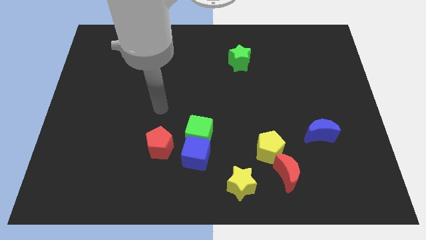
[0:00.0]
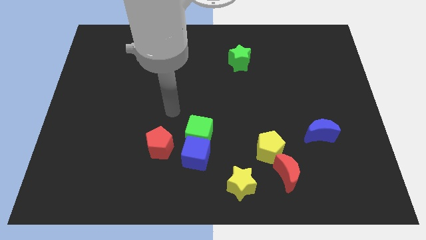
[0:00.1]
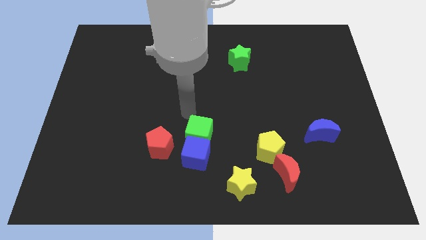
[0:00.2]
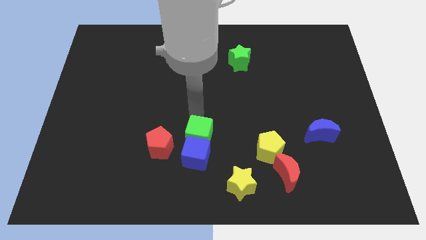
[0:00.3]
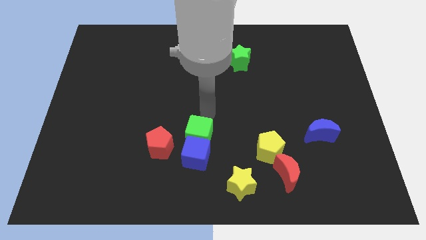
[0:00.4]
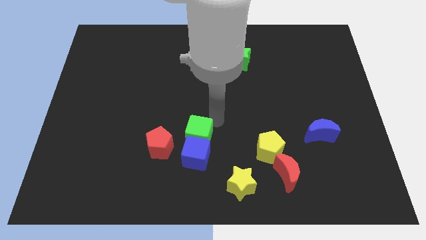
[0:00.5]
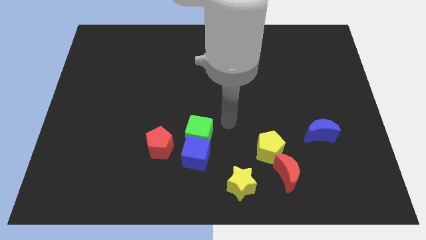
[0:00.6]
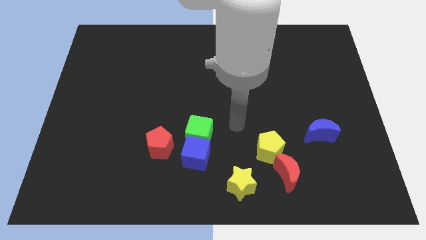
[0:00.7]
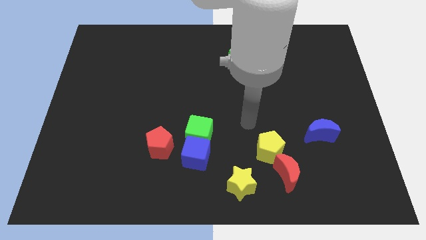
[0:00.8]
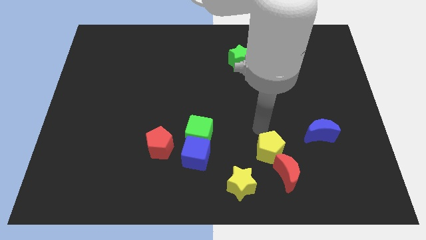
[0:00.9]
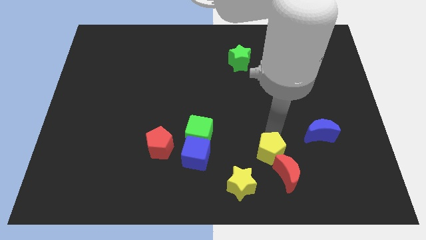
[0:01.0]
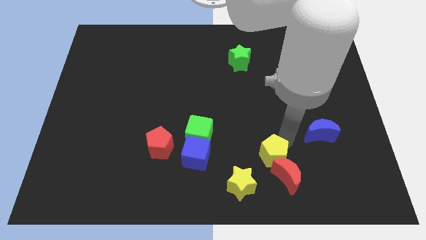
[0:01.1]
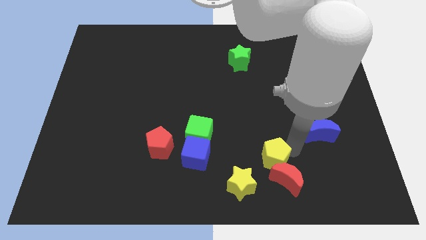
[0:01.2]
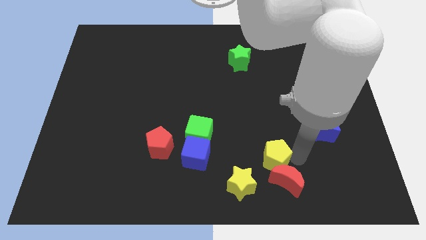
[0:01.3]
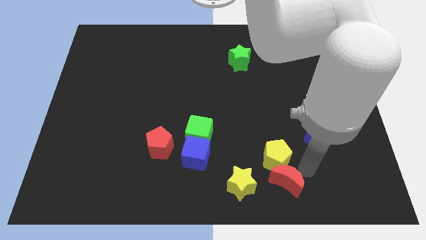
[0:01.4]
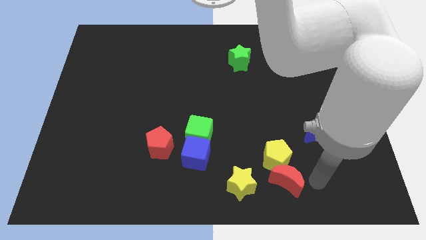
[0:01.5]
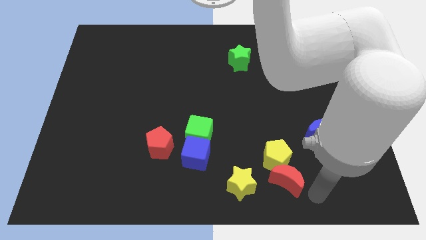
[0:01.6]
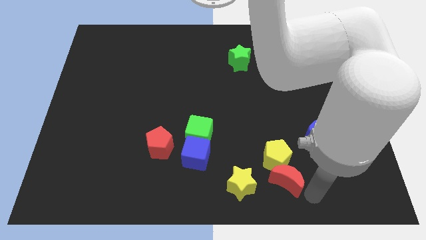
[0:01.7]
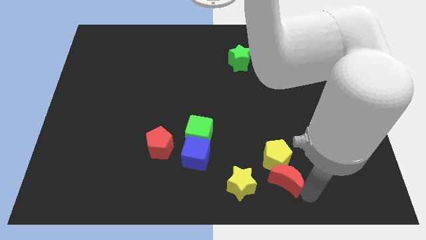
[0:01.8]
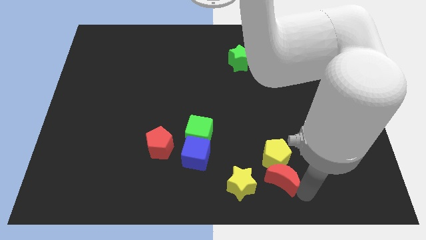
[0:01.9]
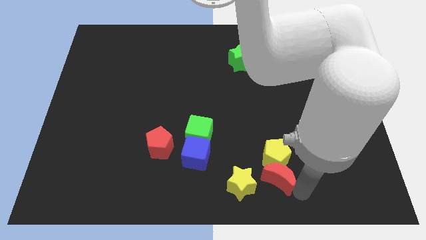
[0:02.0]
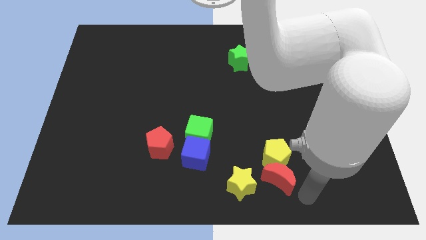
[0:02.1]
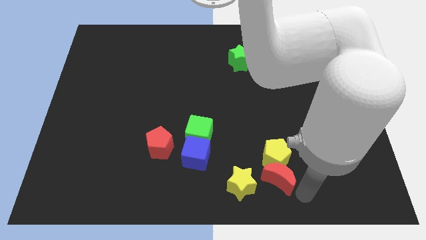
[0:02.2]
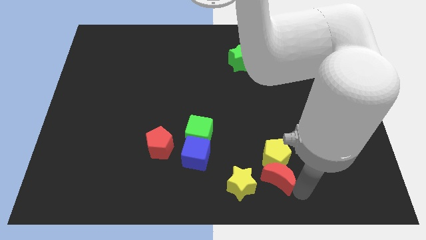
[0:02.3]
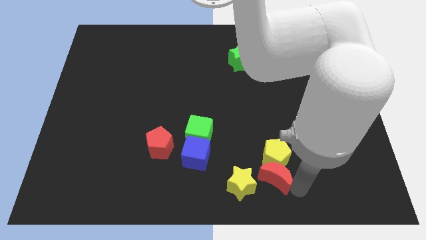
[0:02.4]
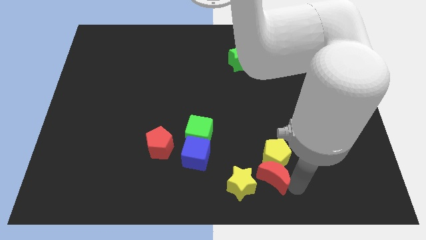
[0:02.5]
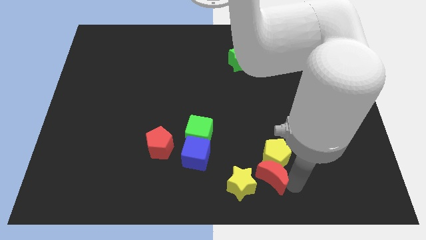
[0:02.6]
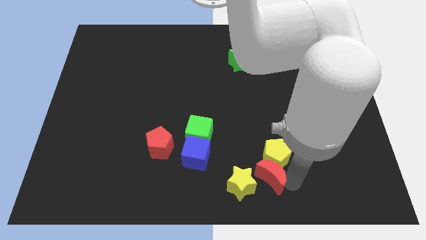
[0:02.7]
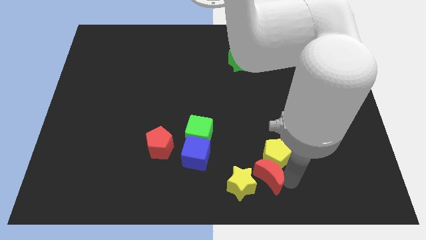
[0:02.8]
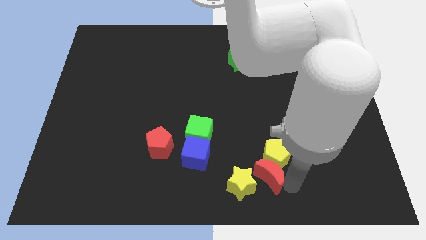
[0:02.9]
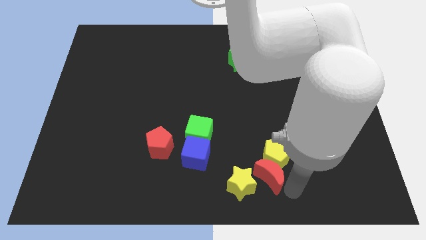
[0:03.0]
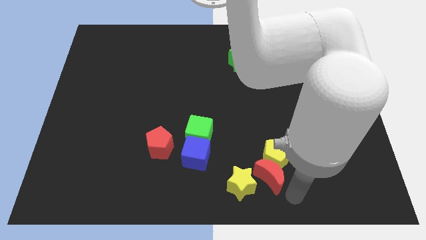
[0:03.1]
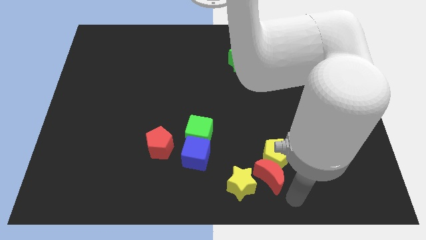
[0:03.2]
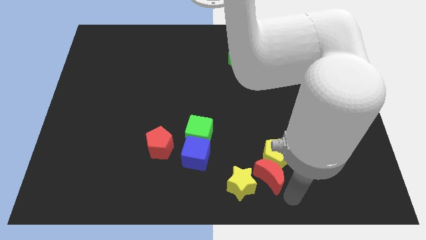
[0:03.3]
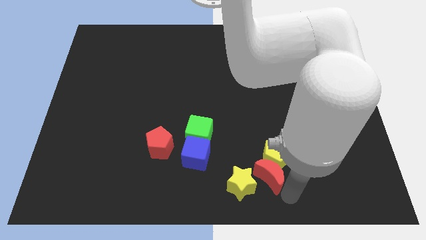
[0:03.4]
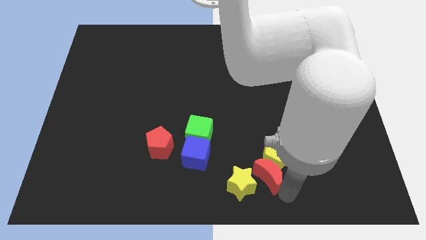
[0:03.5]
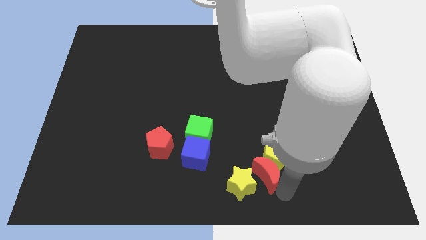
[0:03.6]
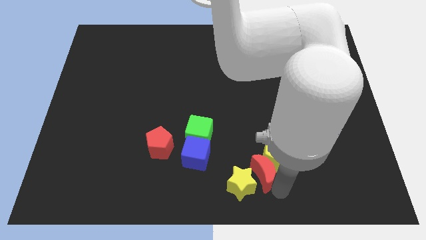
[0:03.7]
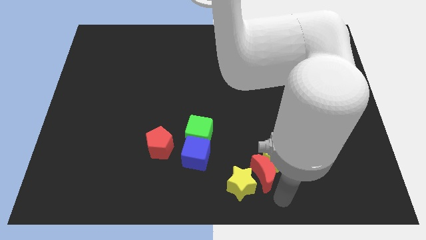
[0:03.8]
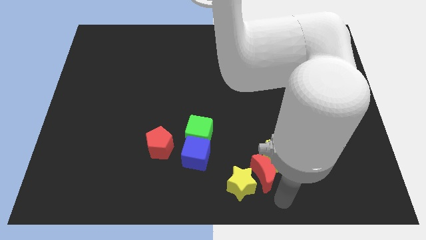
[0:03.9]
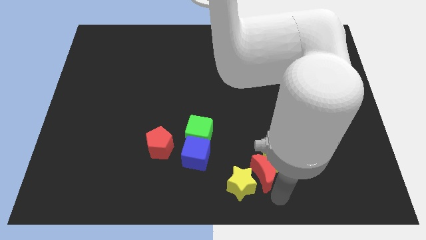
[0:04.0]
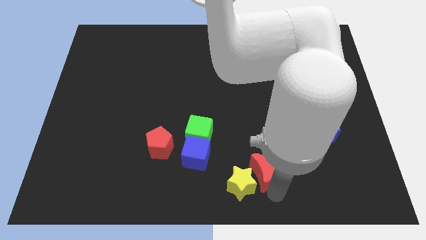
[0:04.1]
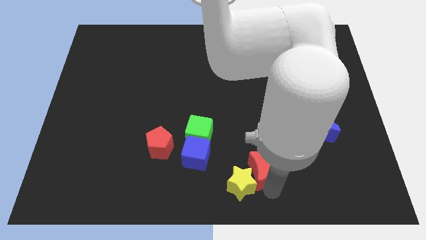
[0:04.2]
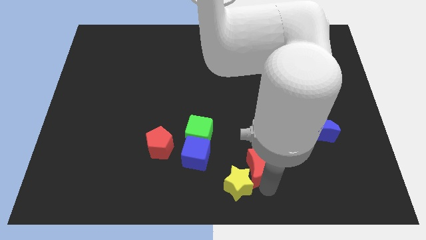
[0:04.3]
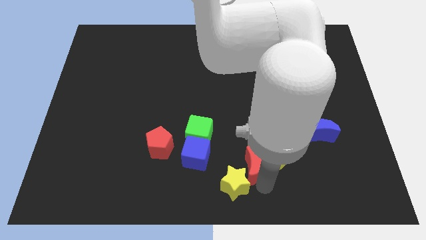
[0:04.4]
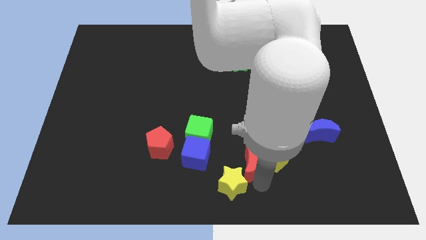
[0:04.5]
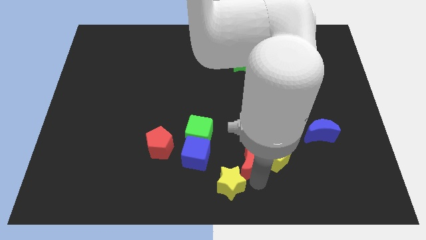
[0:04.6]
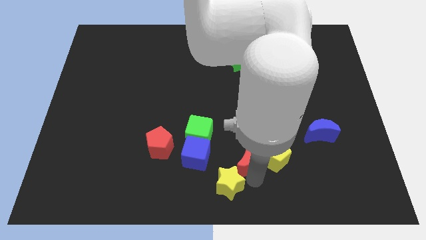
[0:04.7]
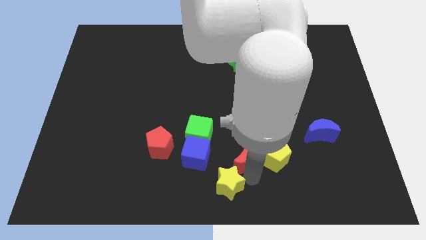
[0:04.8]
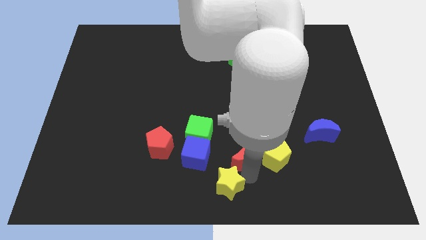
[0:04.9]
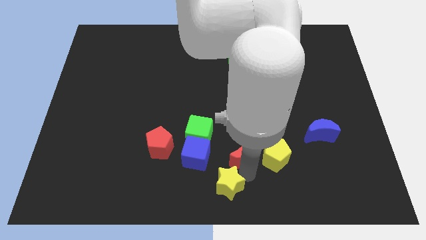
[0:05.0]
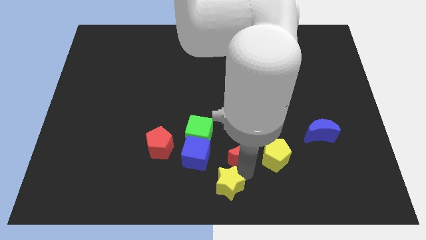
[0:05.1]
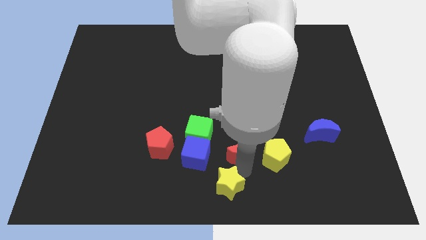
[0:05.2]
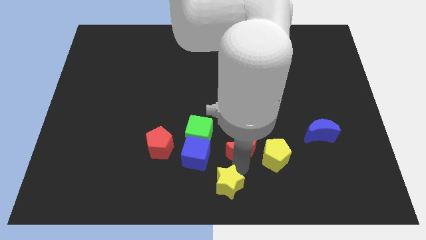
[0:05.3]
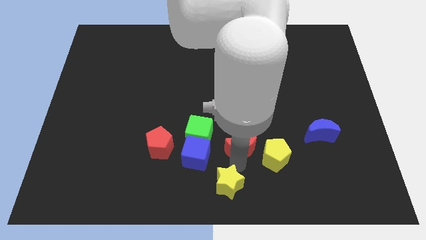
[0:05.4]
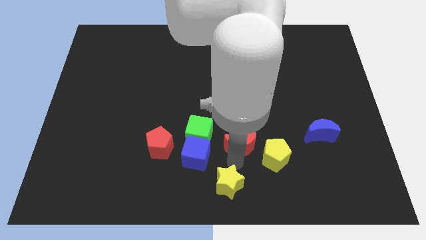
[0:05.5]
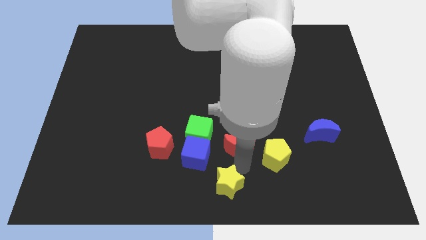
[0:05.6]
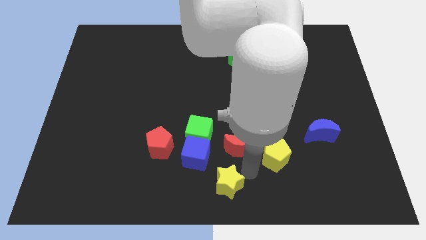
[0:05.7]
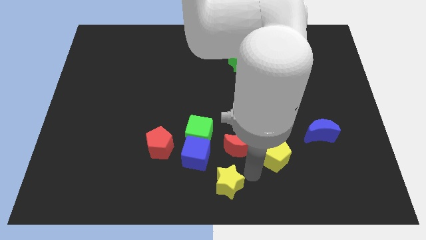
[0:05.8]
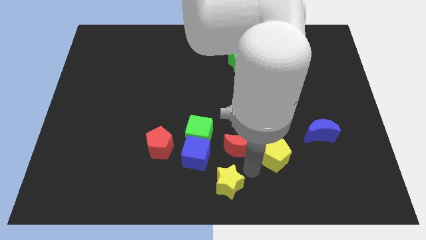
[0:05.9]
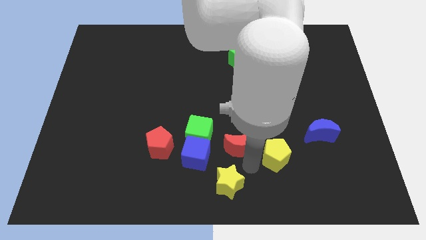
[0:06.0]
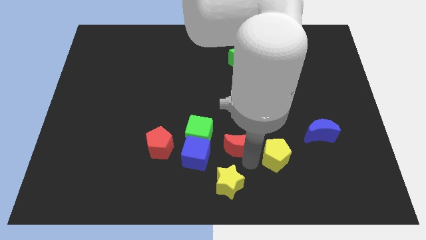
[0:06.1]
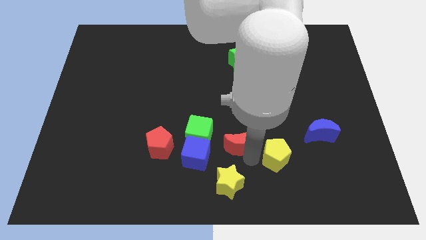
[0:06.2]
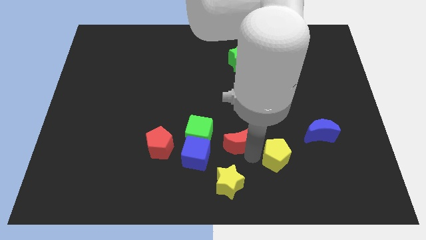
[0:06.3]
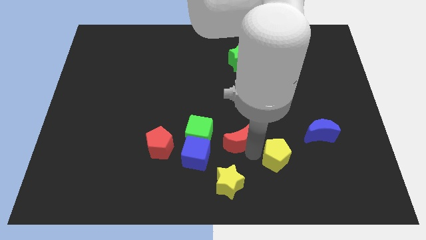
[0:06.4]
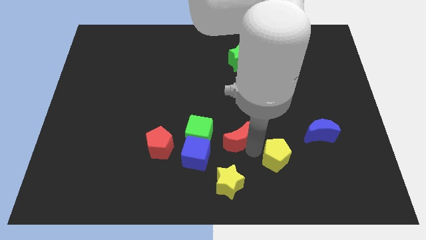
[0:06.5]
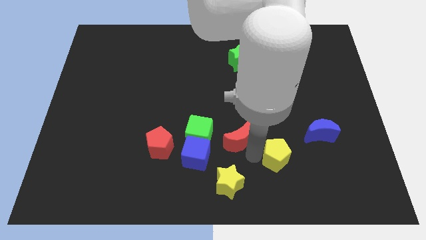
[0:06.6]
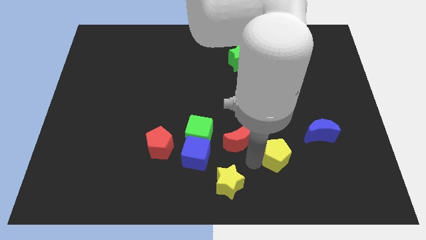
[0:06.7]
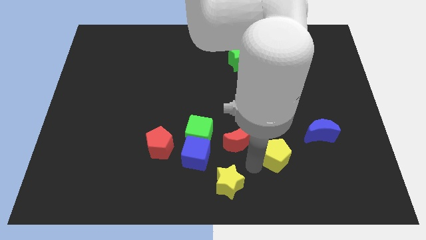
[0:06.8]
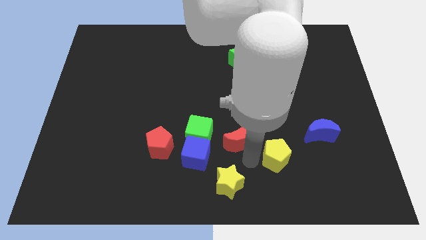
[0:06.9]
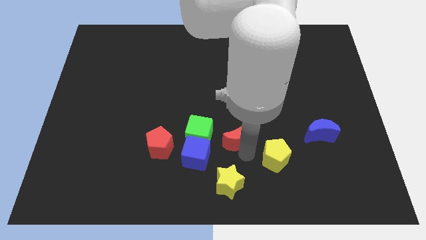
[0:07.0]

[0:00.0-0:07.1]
put the red moon to the middle of the board
